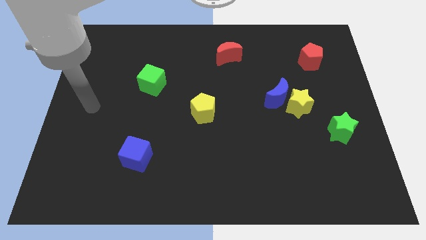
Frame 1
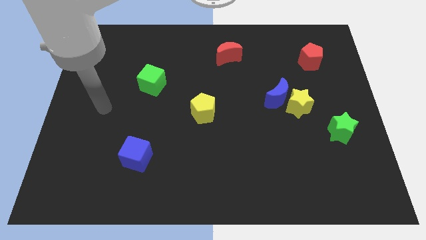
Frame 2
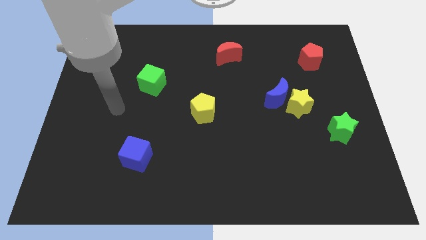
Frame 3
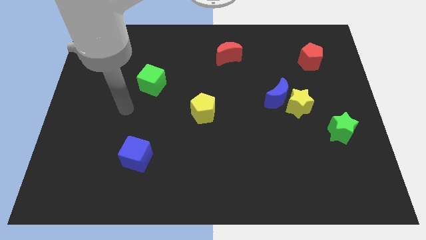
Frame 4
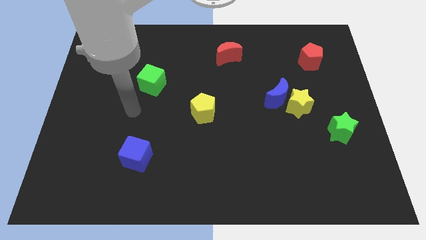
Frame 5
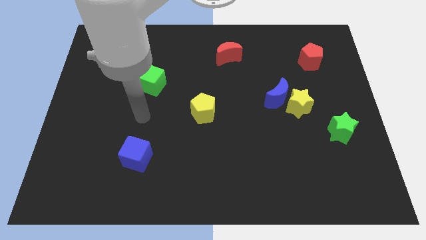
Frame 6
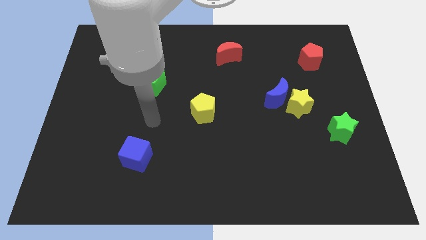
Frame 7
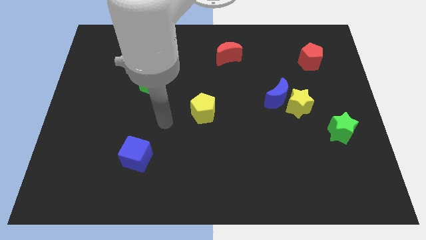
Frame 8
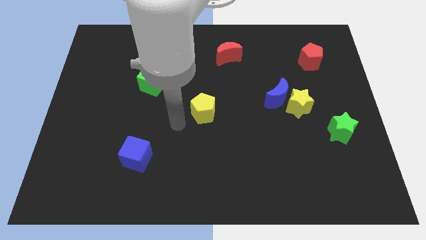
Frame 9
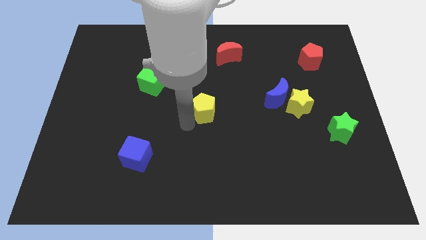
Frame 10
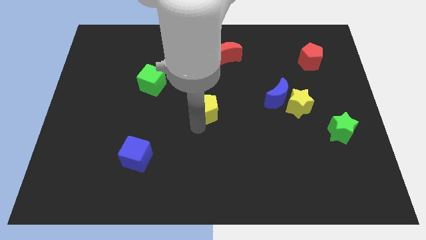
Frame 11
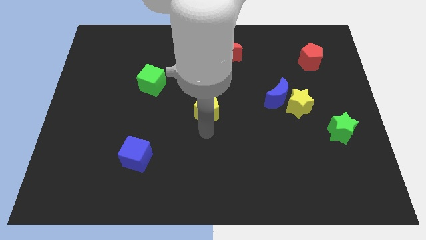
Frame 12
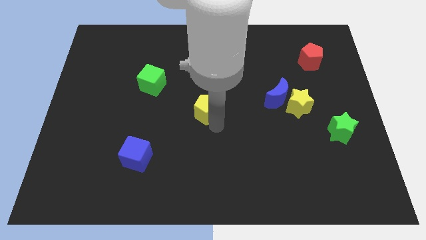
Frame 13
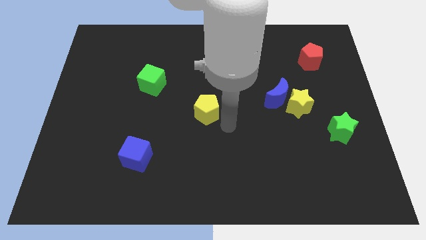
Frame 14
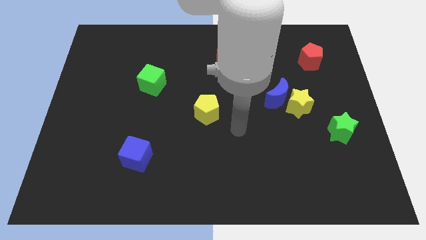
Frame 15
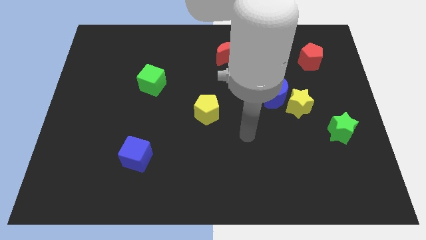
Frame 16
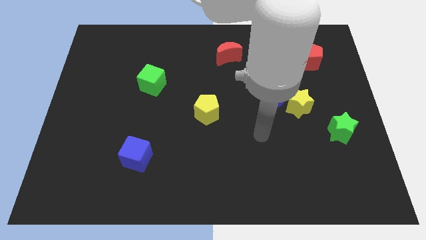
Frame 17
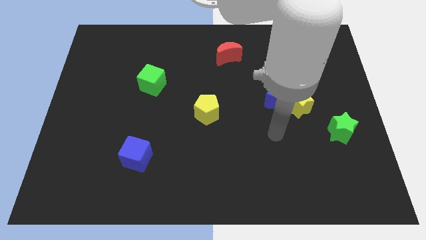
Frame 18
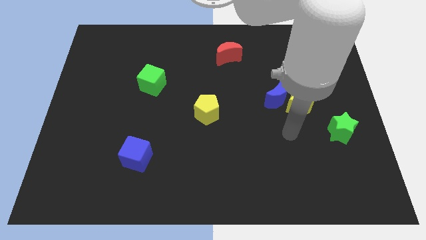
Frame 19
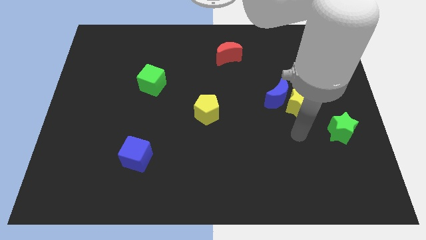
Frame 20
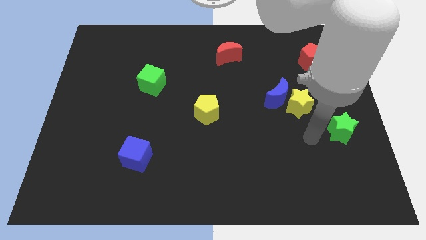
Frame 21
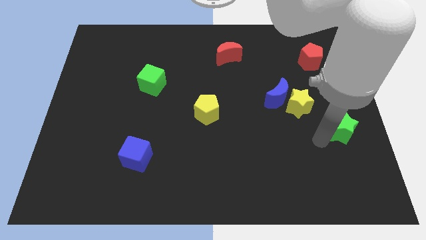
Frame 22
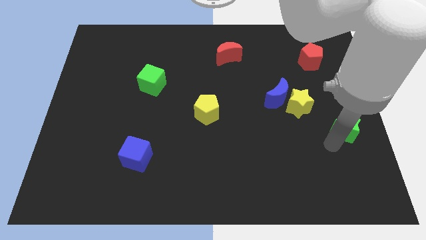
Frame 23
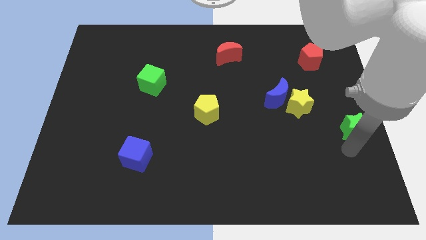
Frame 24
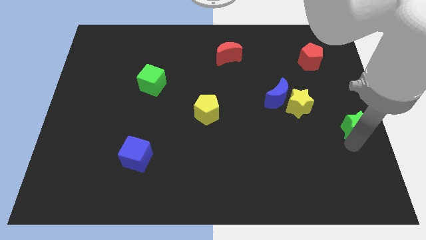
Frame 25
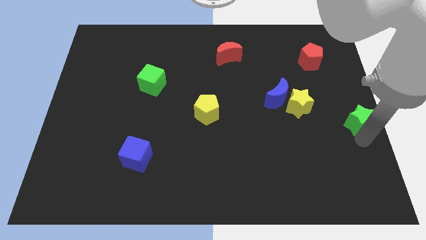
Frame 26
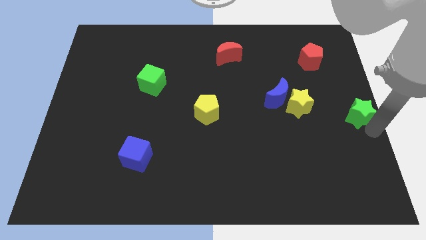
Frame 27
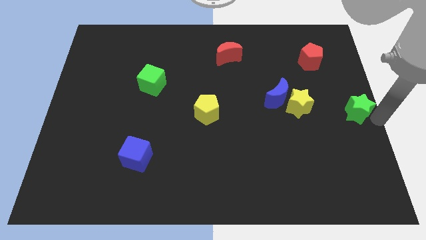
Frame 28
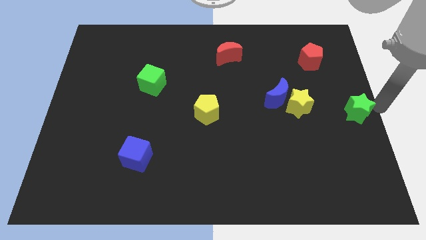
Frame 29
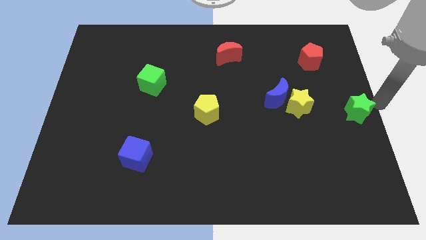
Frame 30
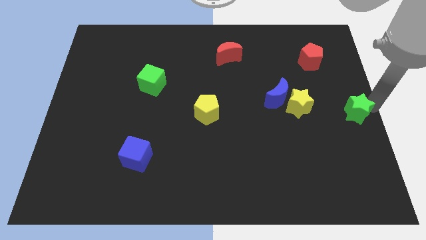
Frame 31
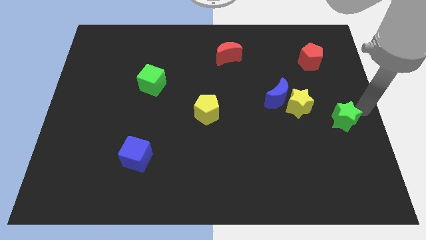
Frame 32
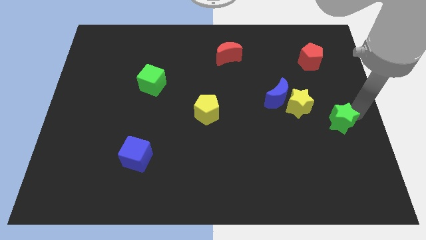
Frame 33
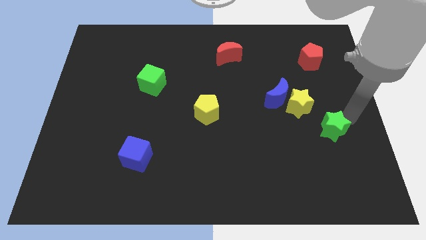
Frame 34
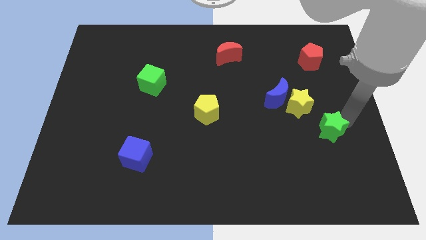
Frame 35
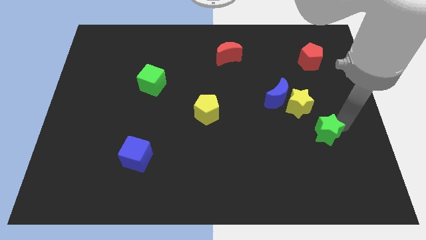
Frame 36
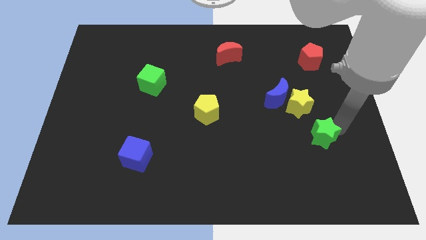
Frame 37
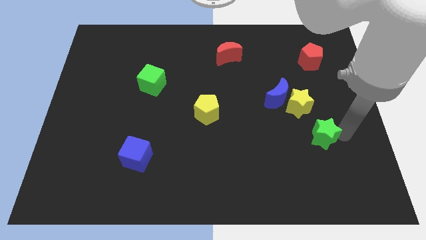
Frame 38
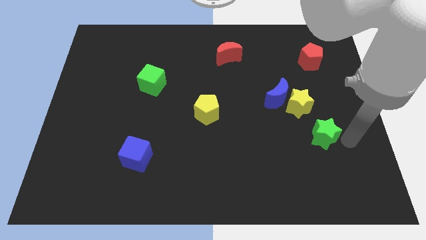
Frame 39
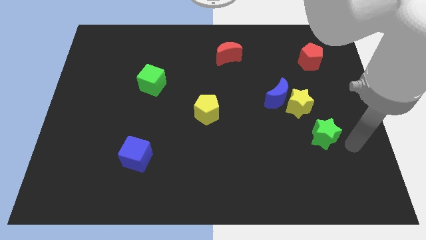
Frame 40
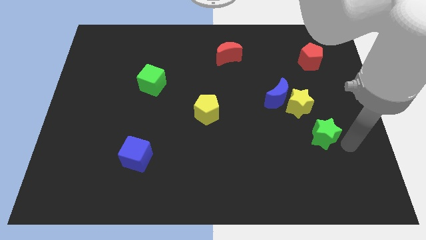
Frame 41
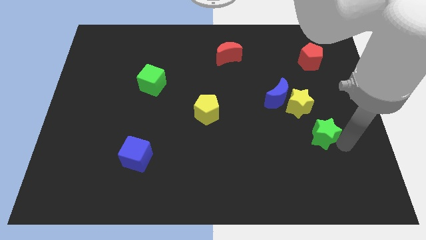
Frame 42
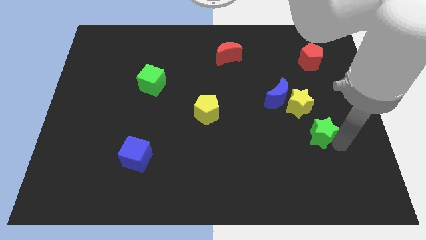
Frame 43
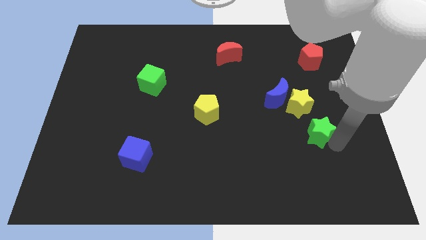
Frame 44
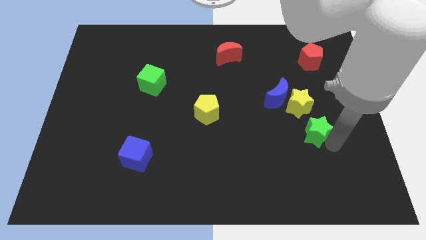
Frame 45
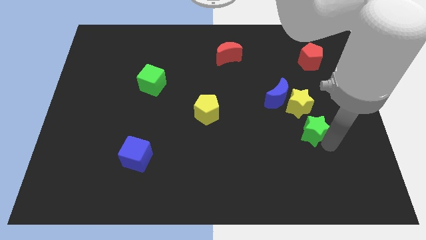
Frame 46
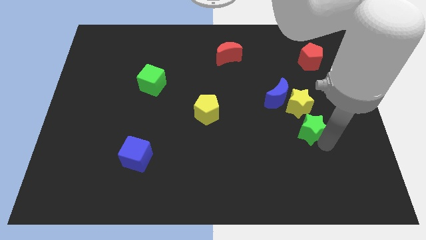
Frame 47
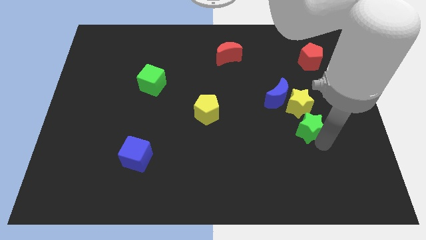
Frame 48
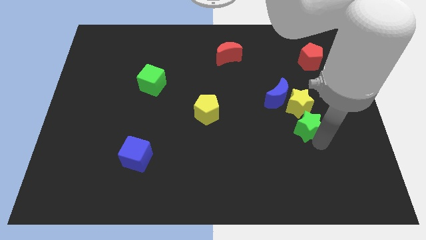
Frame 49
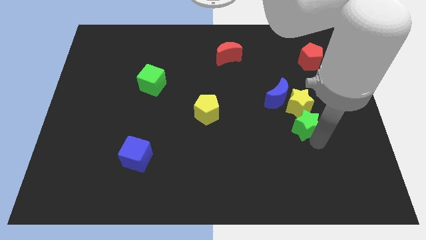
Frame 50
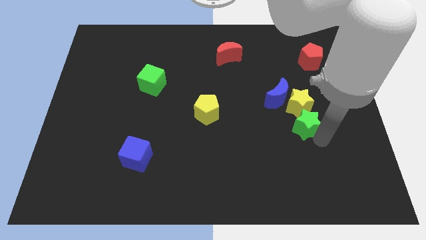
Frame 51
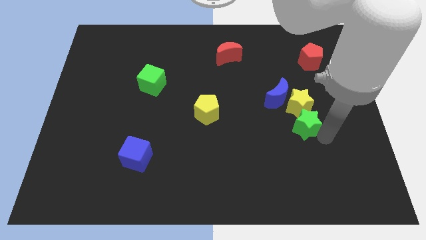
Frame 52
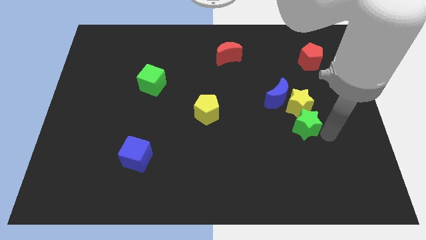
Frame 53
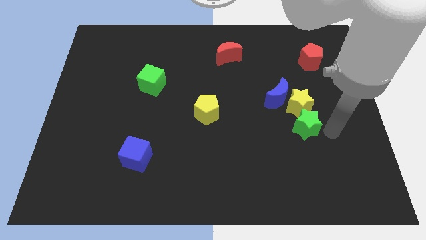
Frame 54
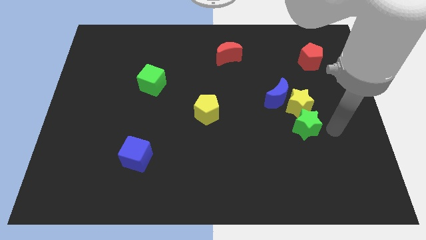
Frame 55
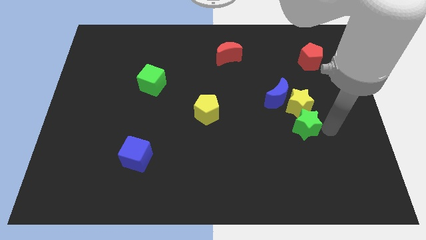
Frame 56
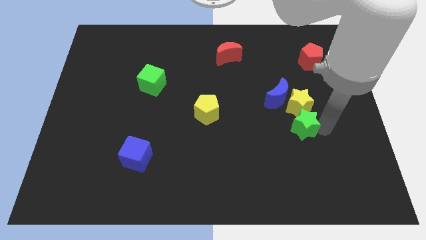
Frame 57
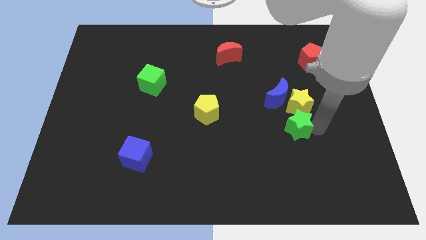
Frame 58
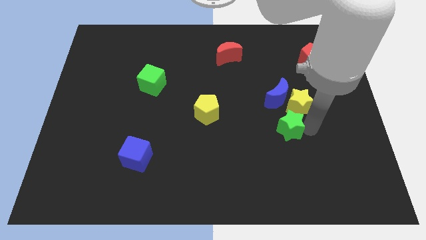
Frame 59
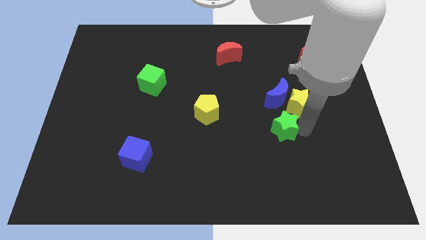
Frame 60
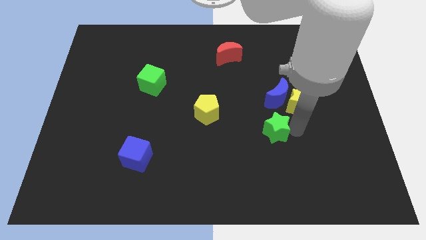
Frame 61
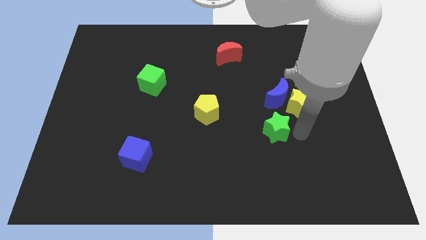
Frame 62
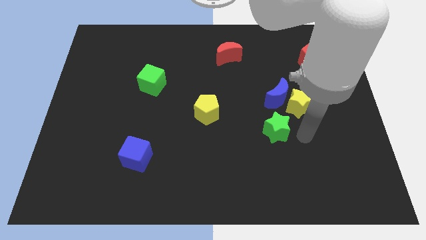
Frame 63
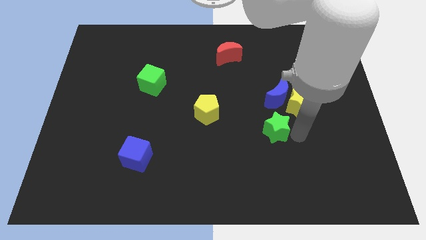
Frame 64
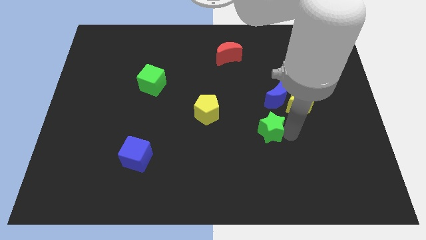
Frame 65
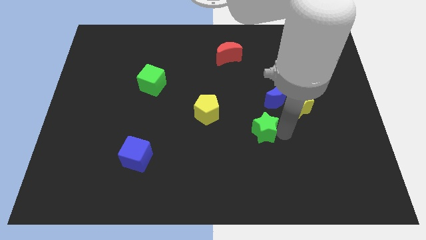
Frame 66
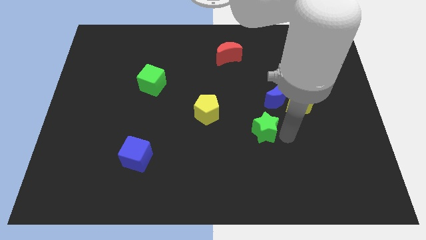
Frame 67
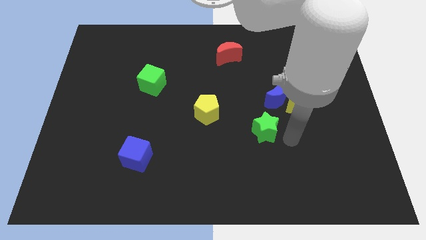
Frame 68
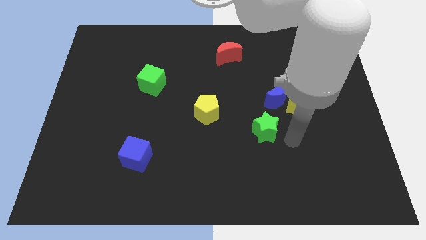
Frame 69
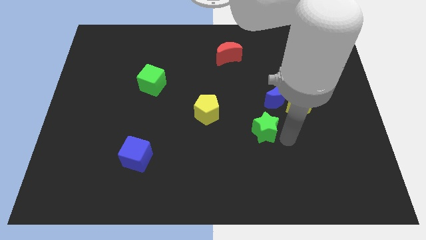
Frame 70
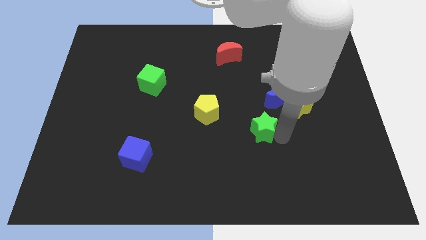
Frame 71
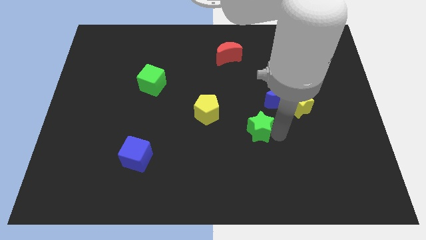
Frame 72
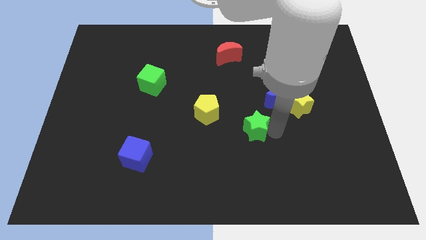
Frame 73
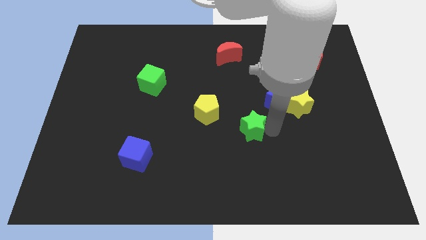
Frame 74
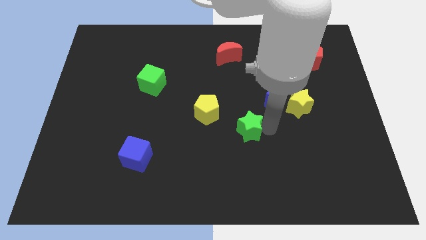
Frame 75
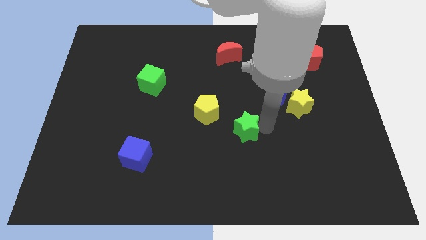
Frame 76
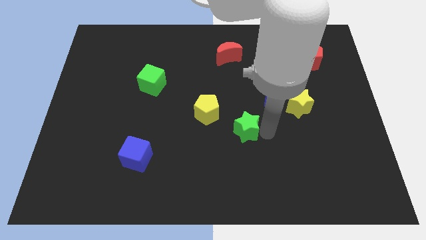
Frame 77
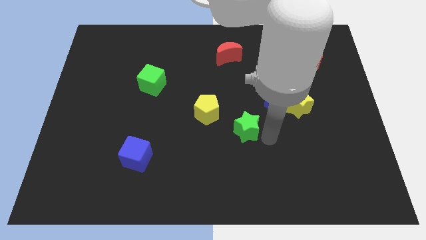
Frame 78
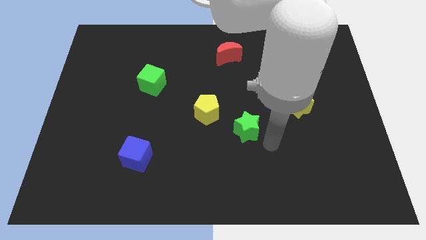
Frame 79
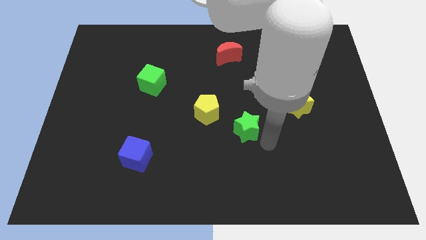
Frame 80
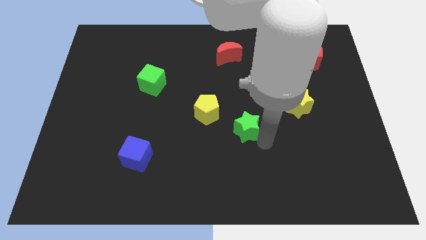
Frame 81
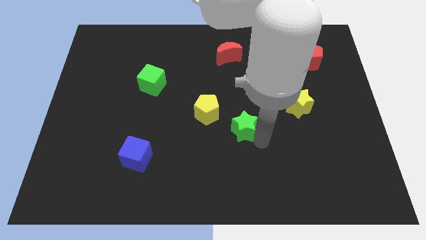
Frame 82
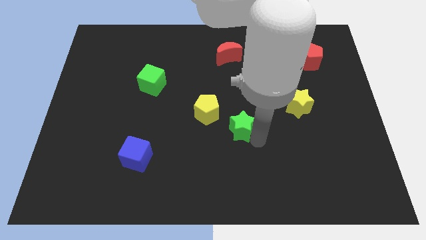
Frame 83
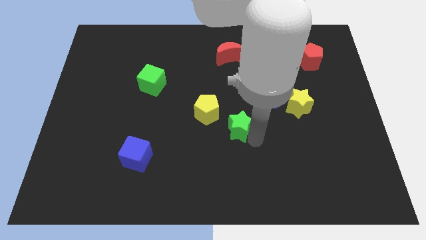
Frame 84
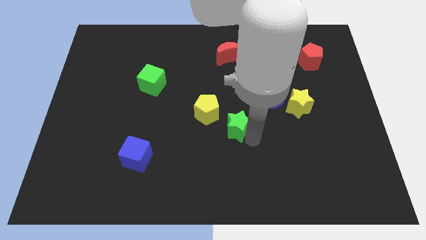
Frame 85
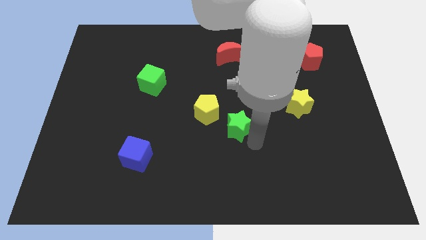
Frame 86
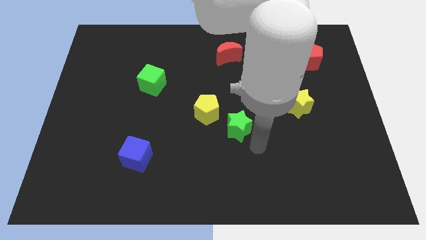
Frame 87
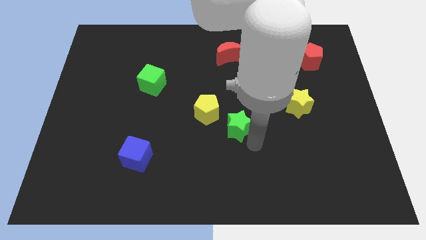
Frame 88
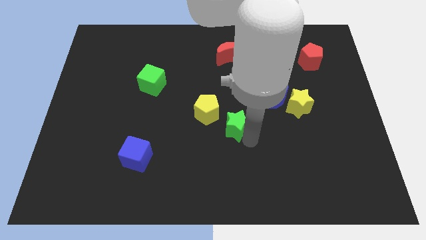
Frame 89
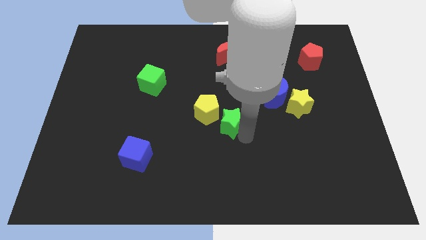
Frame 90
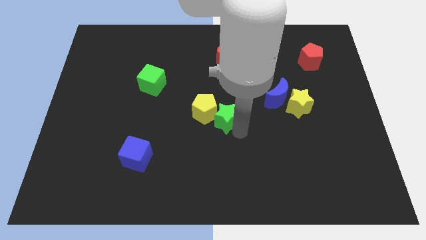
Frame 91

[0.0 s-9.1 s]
slide the green star next to the yellow pentagon
